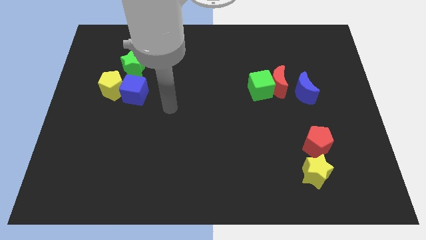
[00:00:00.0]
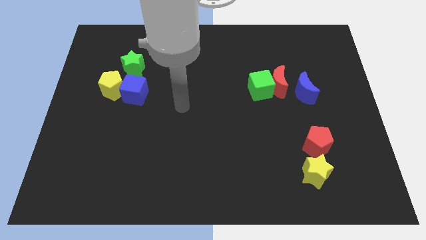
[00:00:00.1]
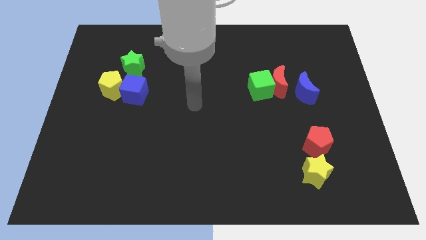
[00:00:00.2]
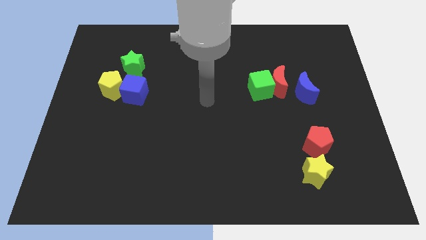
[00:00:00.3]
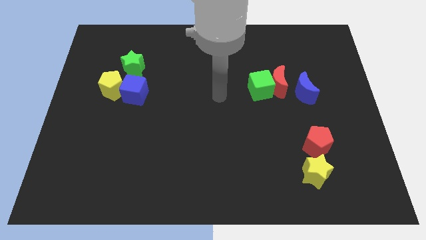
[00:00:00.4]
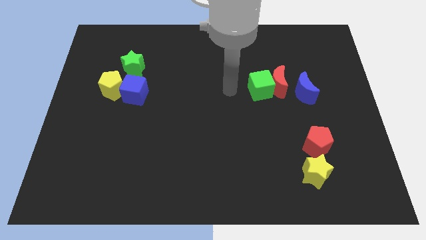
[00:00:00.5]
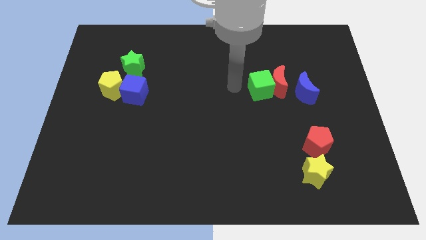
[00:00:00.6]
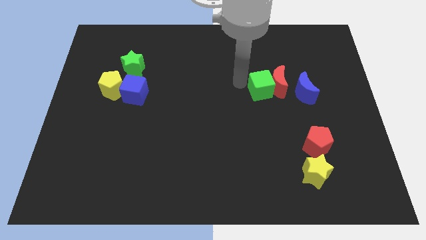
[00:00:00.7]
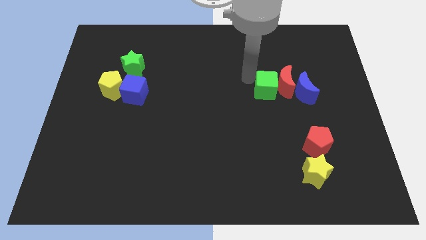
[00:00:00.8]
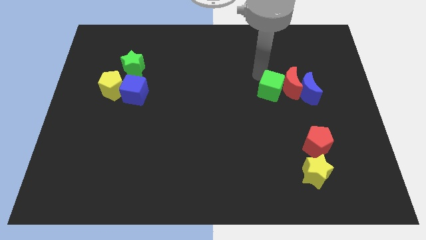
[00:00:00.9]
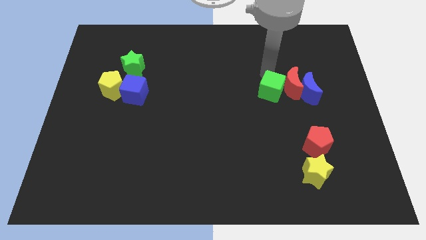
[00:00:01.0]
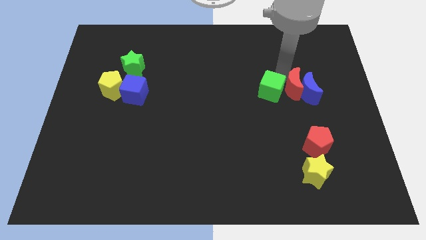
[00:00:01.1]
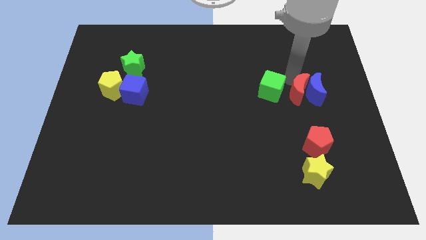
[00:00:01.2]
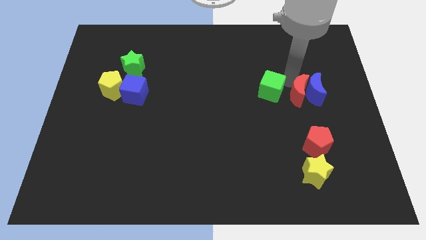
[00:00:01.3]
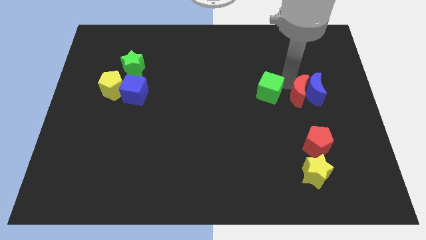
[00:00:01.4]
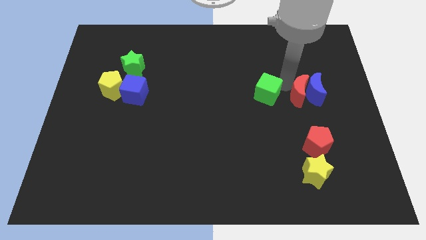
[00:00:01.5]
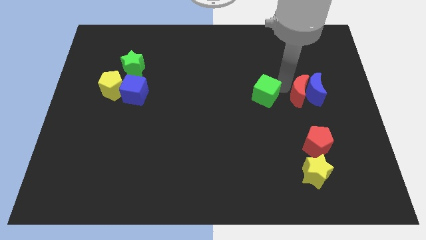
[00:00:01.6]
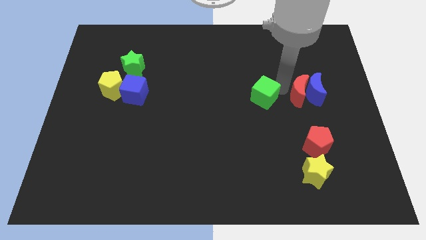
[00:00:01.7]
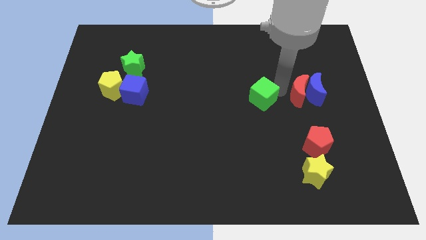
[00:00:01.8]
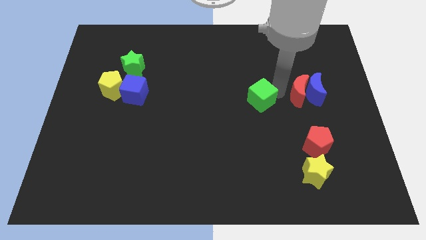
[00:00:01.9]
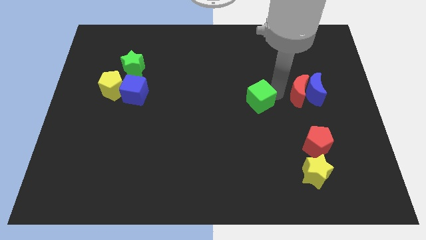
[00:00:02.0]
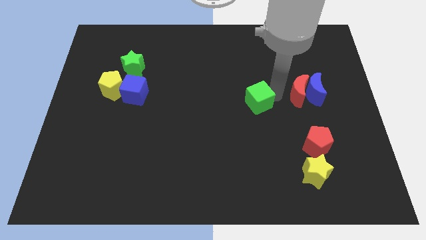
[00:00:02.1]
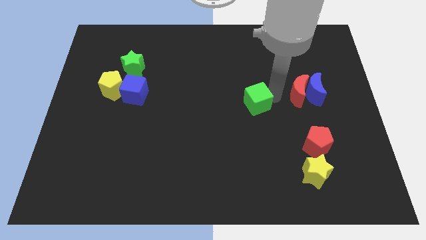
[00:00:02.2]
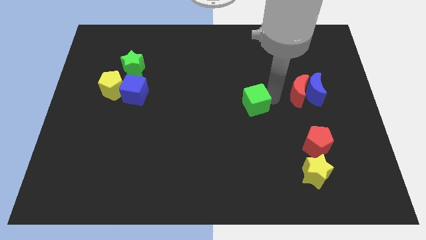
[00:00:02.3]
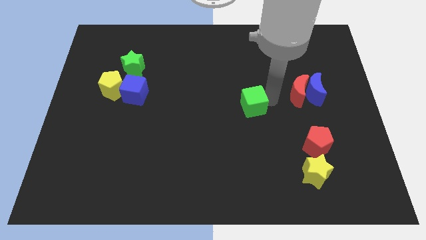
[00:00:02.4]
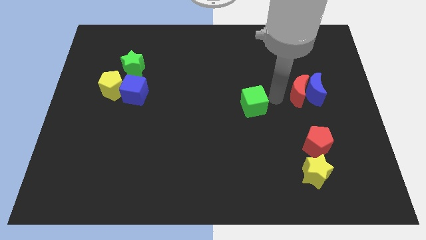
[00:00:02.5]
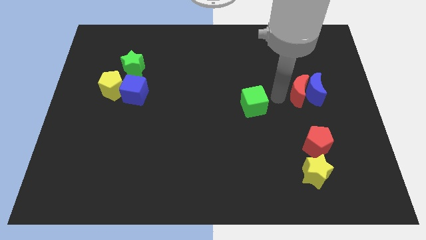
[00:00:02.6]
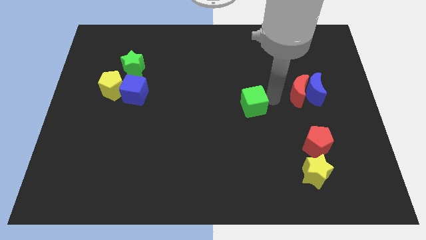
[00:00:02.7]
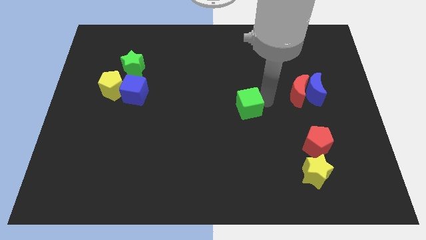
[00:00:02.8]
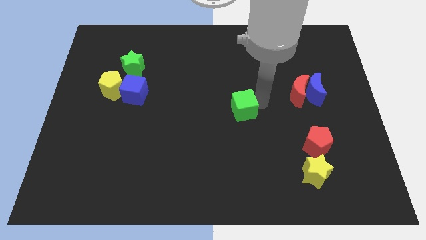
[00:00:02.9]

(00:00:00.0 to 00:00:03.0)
move the green cube a little down and left diagonally

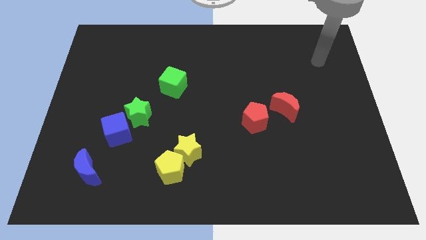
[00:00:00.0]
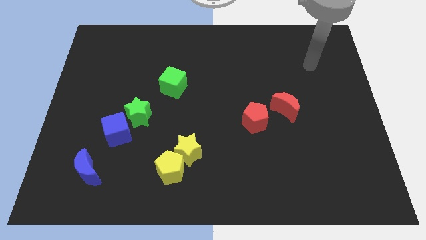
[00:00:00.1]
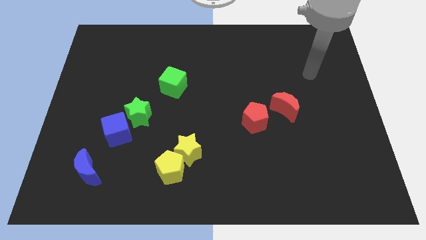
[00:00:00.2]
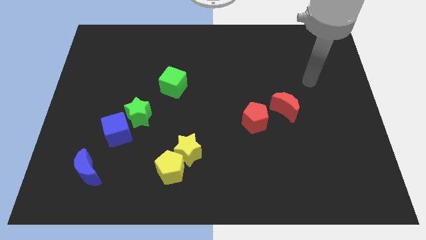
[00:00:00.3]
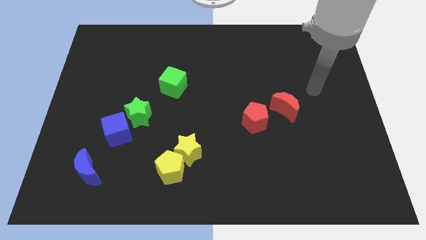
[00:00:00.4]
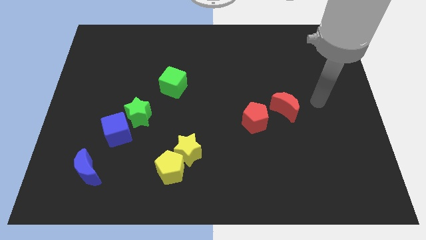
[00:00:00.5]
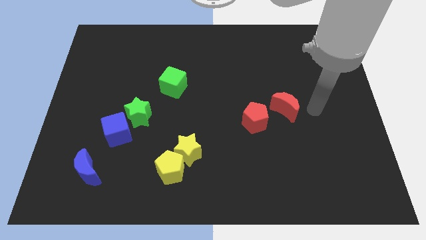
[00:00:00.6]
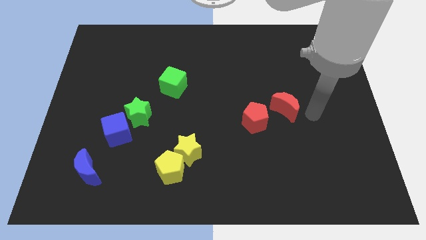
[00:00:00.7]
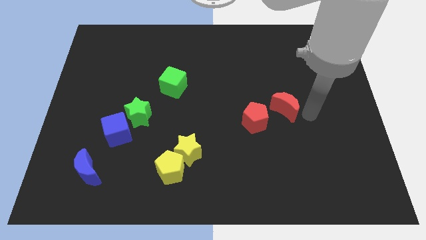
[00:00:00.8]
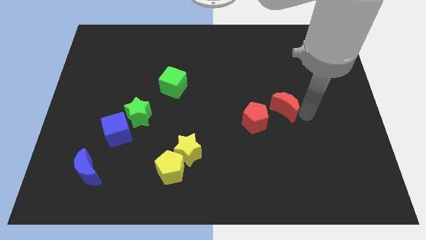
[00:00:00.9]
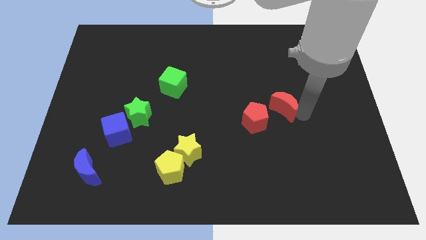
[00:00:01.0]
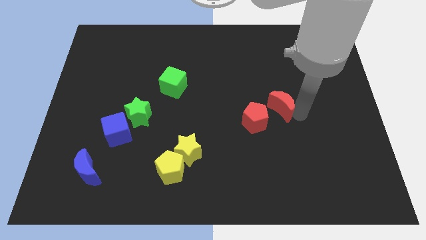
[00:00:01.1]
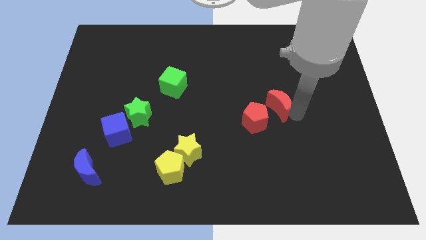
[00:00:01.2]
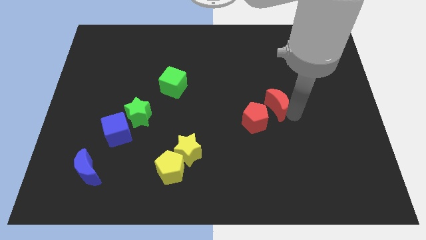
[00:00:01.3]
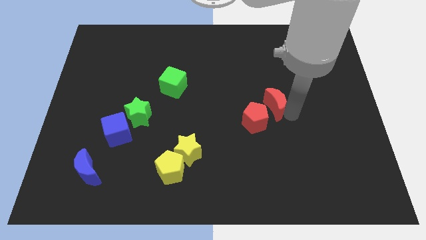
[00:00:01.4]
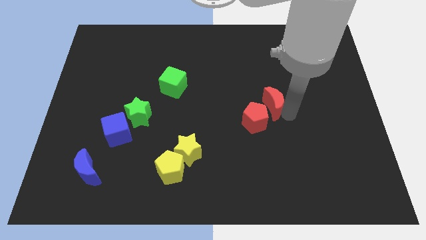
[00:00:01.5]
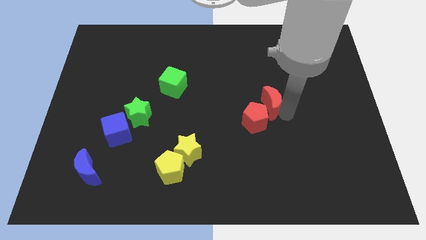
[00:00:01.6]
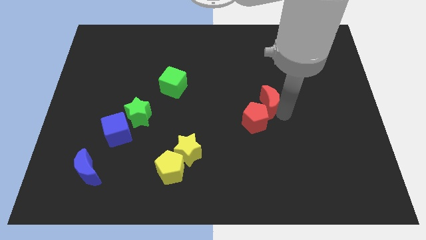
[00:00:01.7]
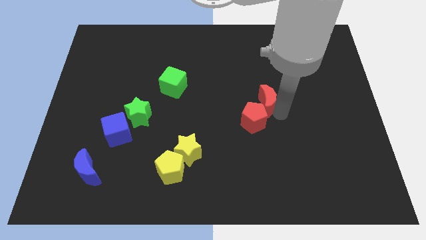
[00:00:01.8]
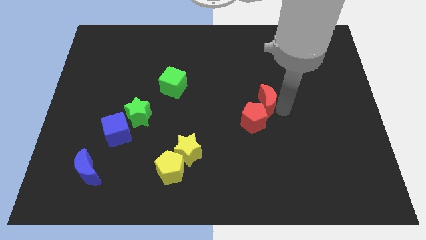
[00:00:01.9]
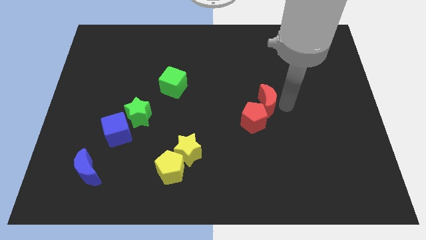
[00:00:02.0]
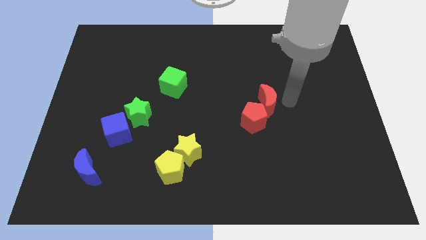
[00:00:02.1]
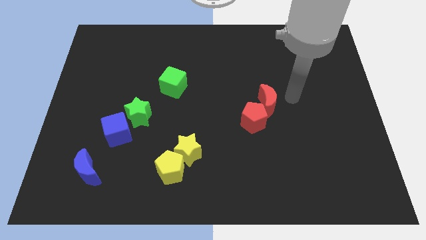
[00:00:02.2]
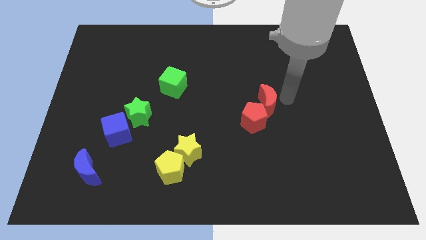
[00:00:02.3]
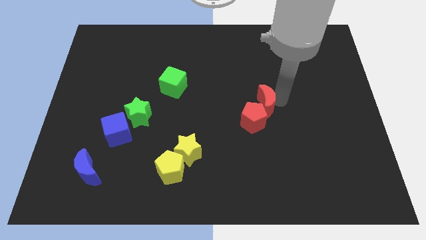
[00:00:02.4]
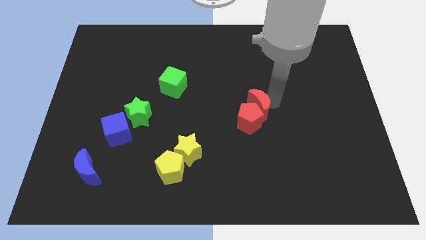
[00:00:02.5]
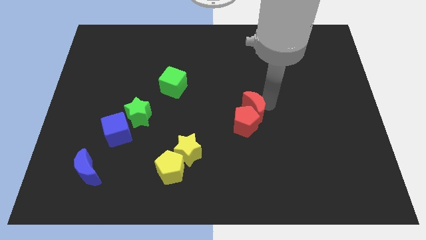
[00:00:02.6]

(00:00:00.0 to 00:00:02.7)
move the red moon a little bit to the left

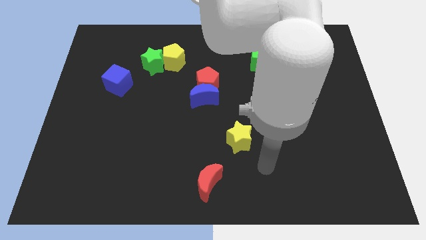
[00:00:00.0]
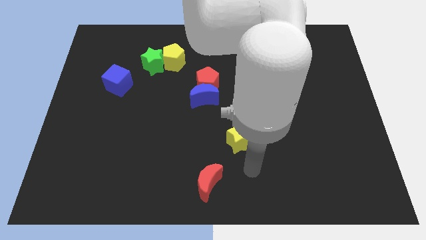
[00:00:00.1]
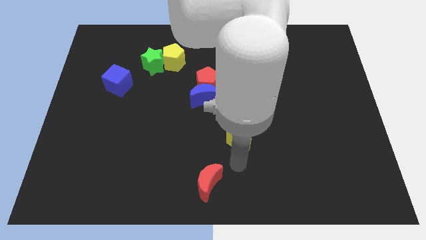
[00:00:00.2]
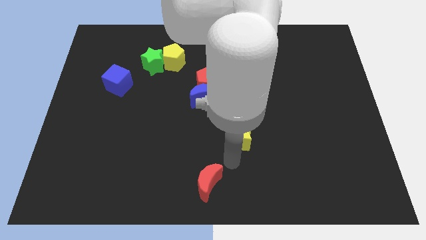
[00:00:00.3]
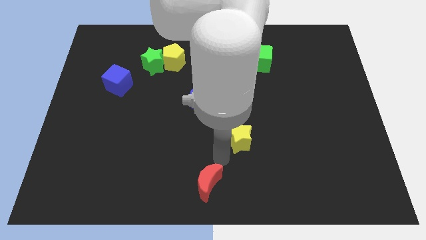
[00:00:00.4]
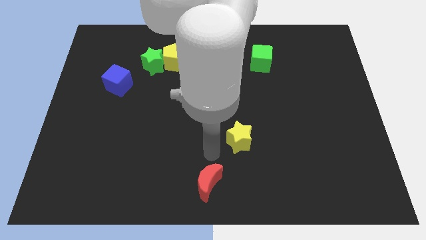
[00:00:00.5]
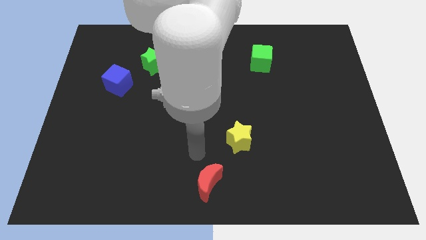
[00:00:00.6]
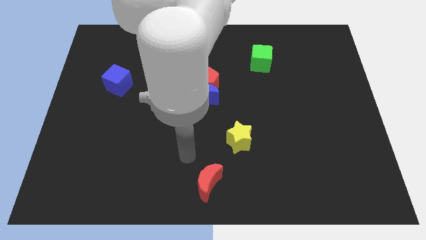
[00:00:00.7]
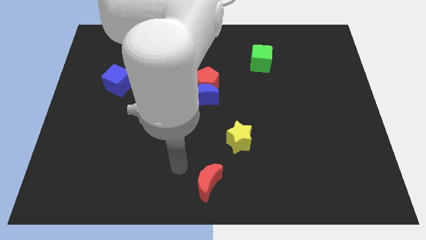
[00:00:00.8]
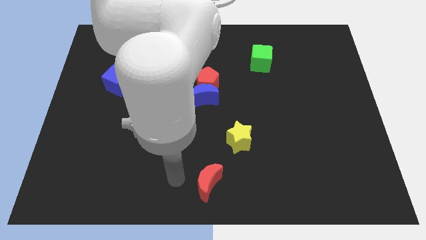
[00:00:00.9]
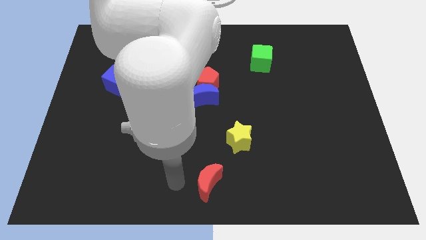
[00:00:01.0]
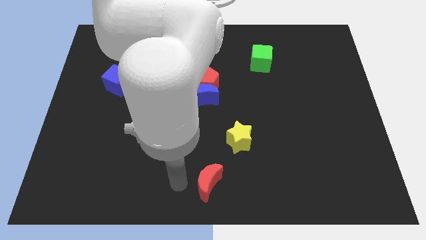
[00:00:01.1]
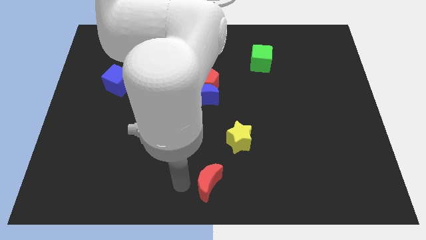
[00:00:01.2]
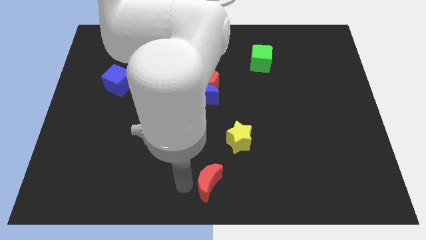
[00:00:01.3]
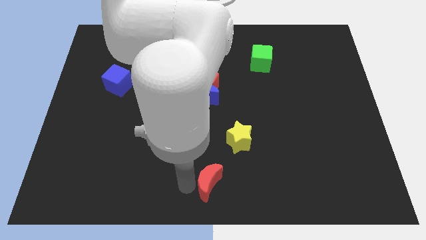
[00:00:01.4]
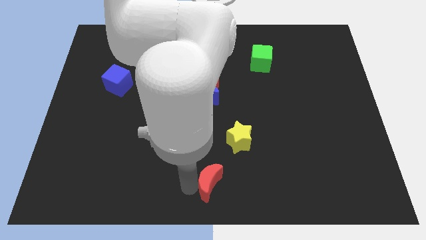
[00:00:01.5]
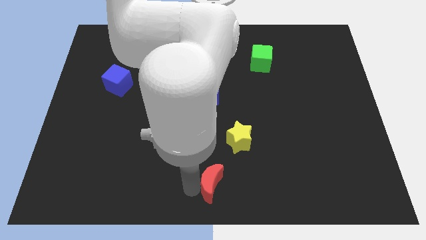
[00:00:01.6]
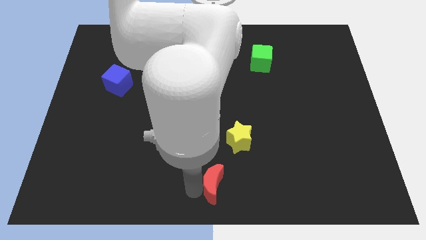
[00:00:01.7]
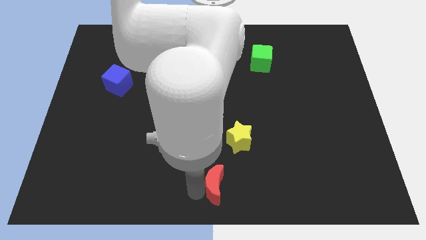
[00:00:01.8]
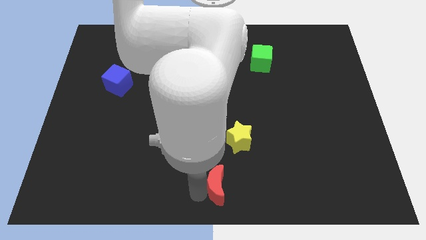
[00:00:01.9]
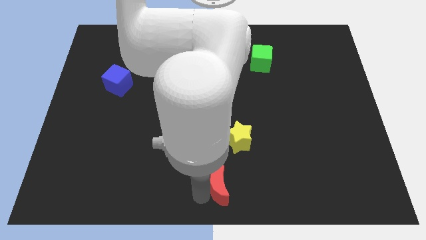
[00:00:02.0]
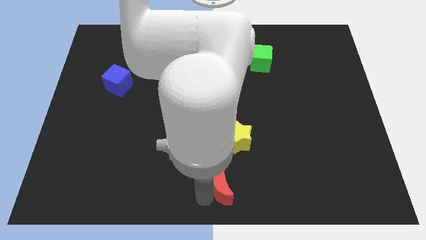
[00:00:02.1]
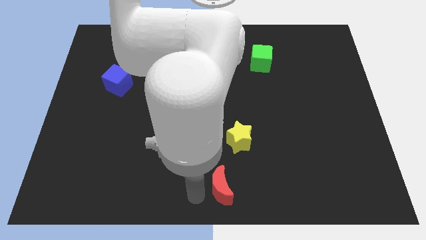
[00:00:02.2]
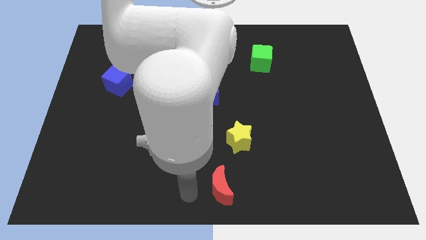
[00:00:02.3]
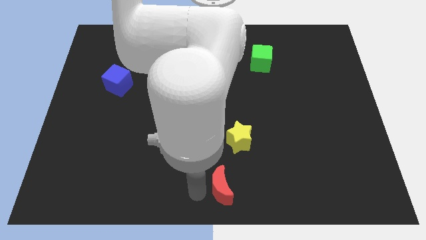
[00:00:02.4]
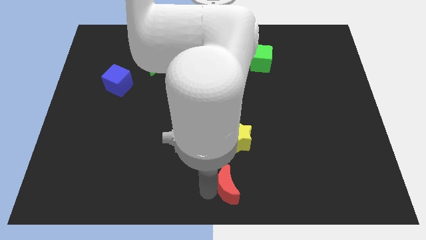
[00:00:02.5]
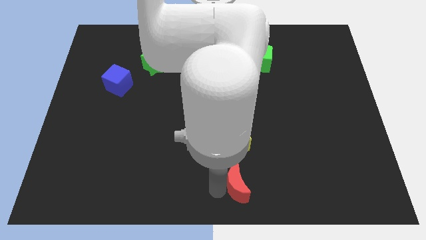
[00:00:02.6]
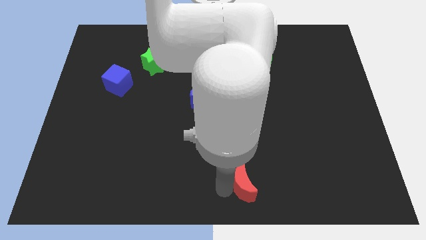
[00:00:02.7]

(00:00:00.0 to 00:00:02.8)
slightly move the red moon to the right
